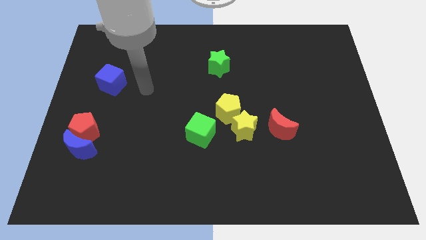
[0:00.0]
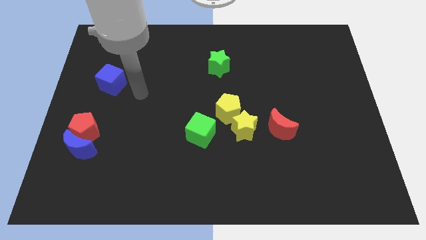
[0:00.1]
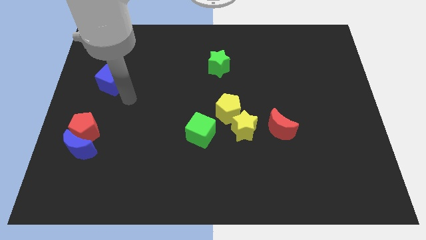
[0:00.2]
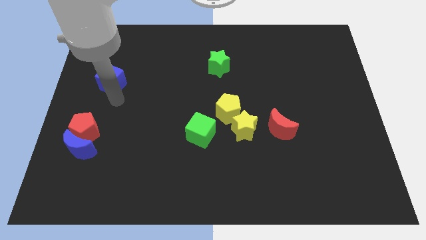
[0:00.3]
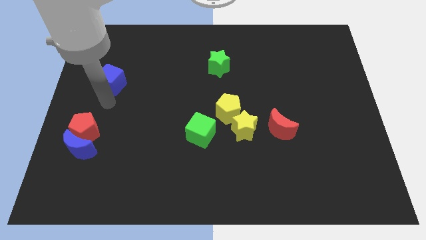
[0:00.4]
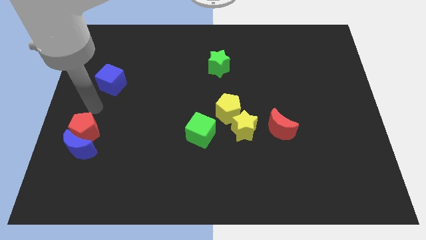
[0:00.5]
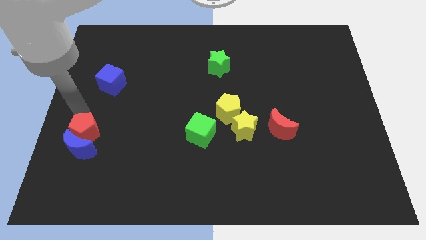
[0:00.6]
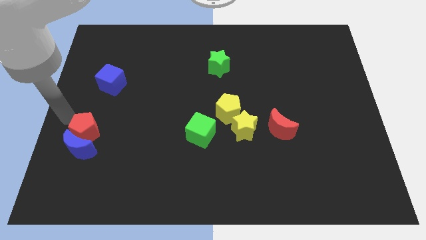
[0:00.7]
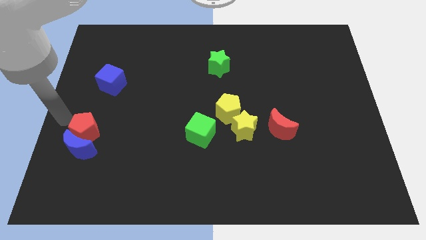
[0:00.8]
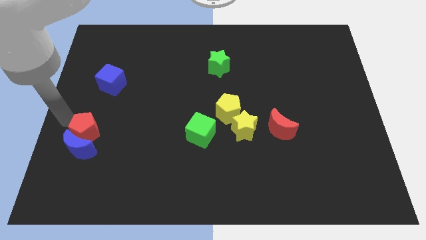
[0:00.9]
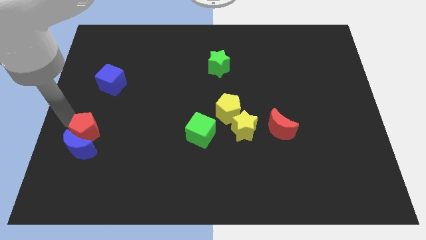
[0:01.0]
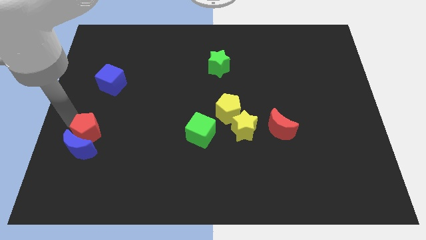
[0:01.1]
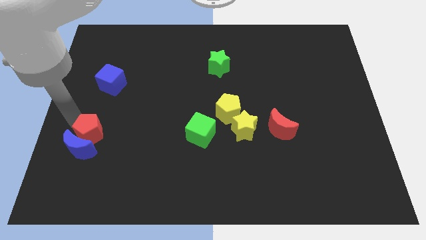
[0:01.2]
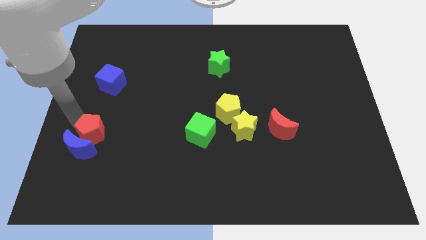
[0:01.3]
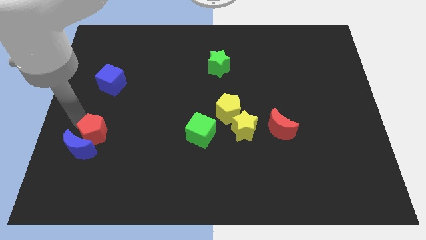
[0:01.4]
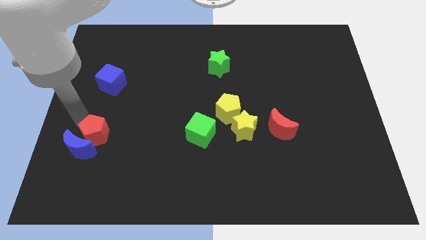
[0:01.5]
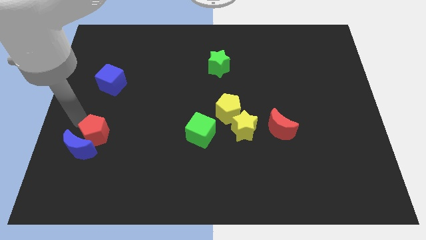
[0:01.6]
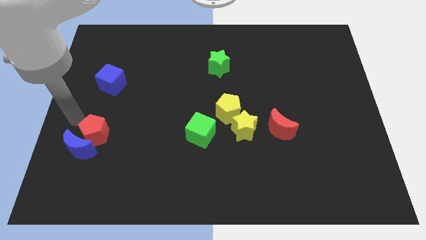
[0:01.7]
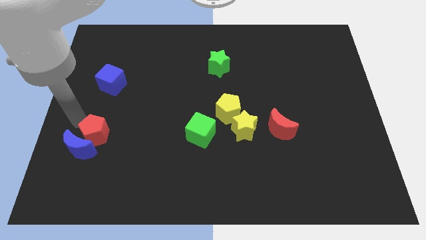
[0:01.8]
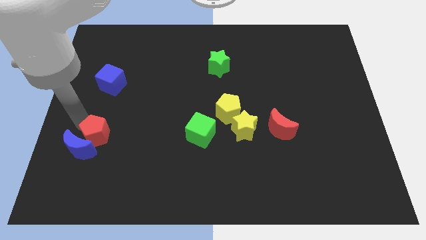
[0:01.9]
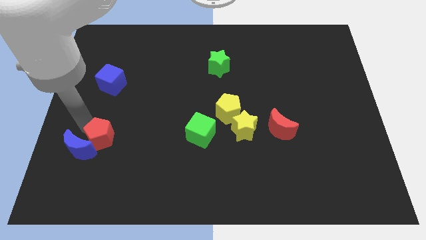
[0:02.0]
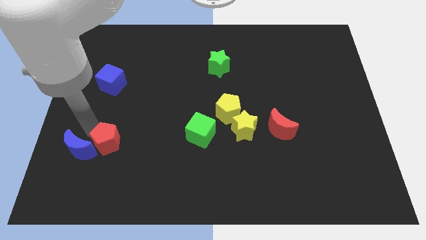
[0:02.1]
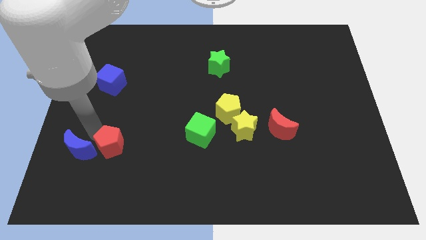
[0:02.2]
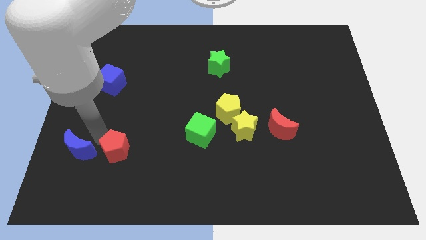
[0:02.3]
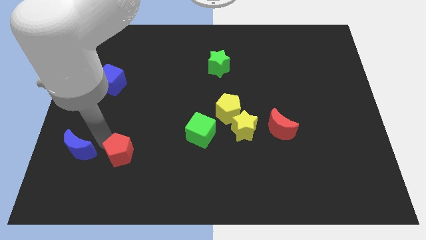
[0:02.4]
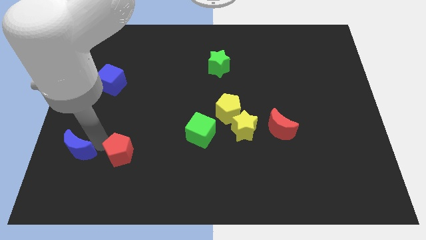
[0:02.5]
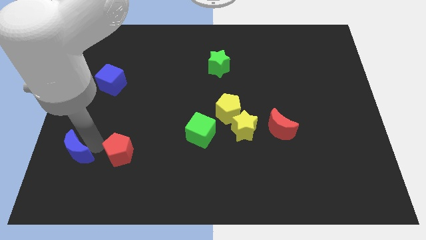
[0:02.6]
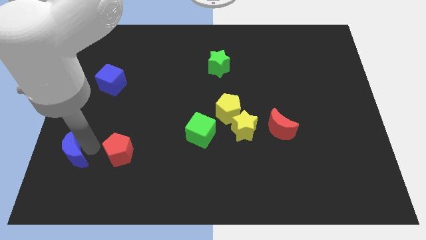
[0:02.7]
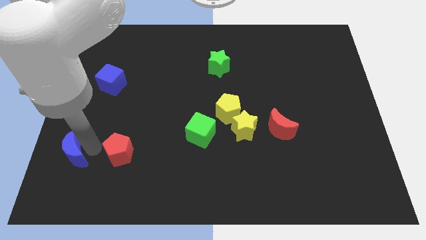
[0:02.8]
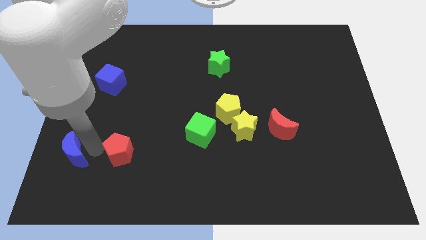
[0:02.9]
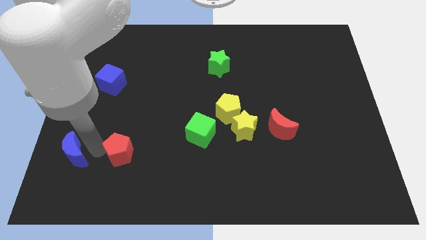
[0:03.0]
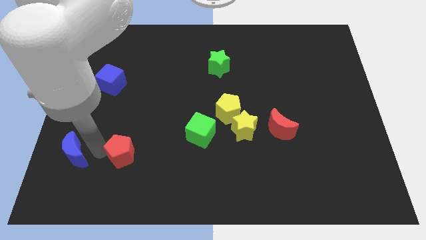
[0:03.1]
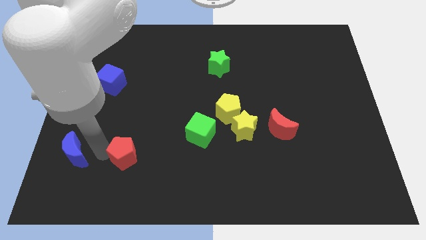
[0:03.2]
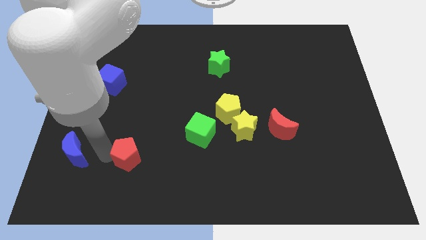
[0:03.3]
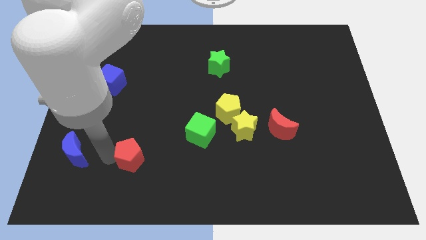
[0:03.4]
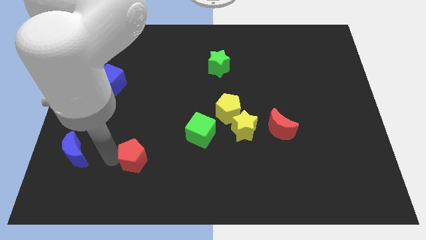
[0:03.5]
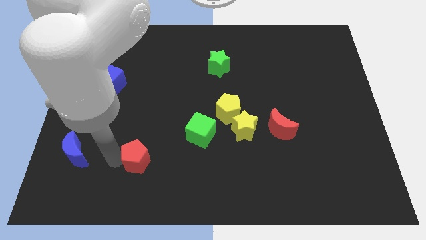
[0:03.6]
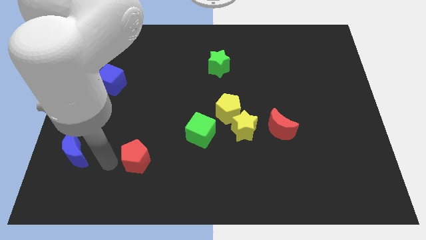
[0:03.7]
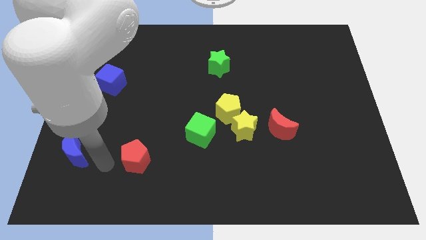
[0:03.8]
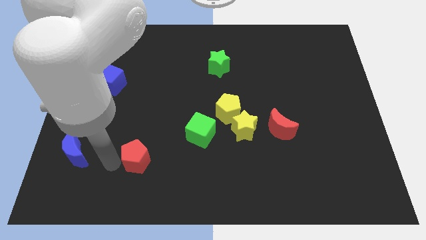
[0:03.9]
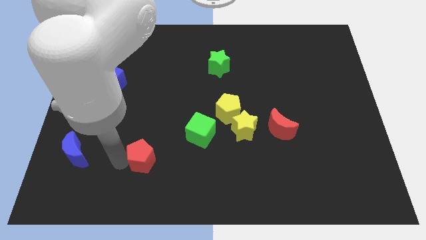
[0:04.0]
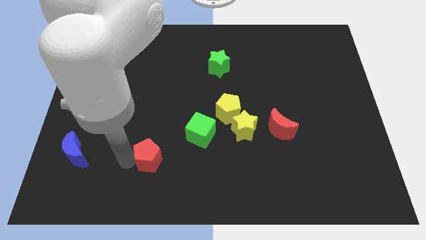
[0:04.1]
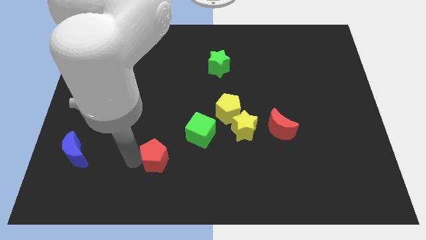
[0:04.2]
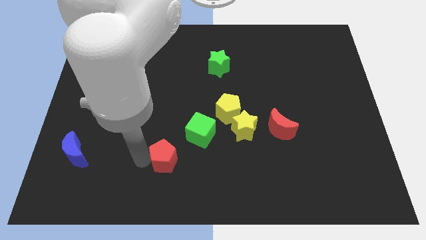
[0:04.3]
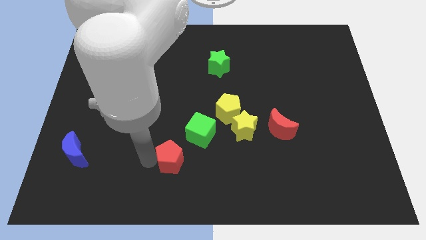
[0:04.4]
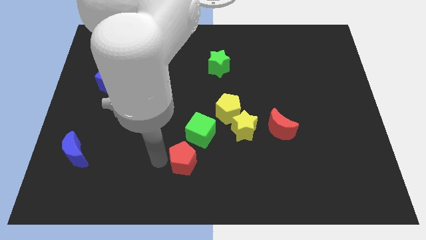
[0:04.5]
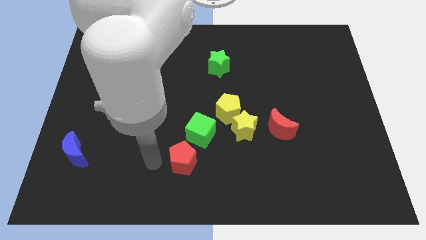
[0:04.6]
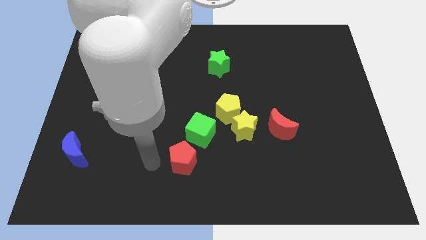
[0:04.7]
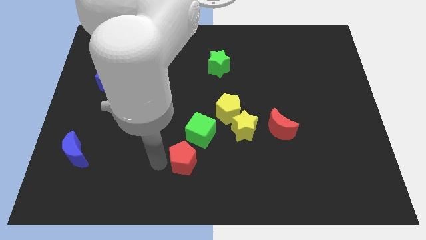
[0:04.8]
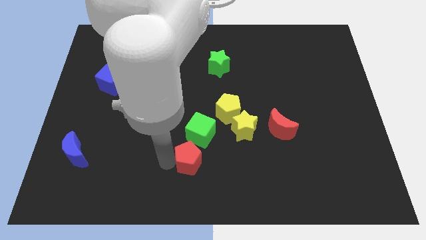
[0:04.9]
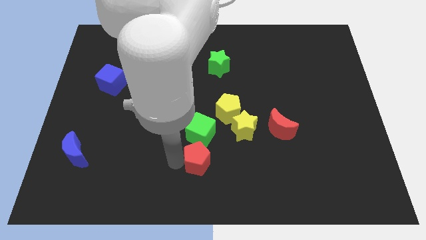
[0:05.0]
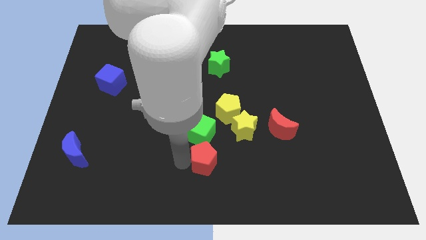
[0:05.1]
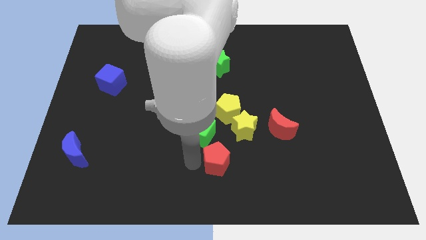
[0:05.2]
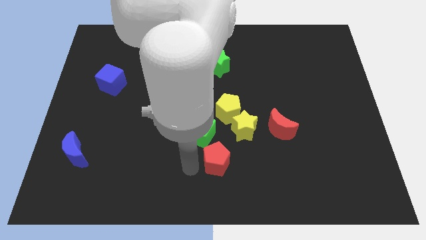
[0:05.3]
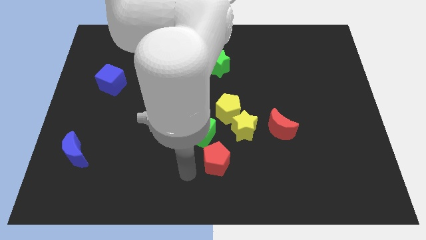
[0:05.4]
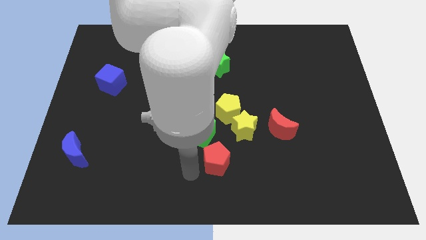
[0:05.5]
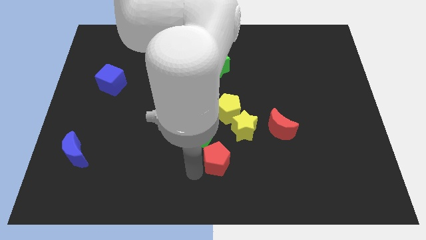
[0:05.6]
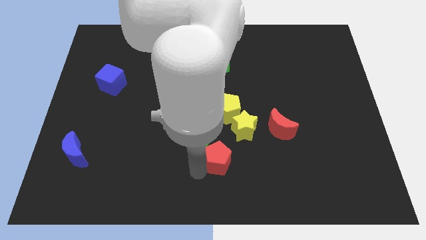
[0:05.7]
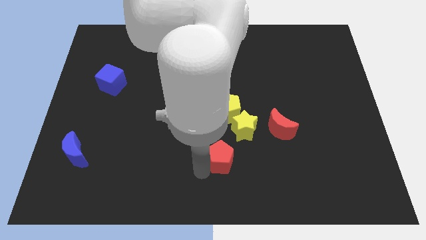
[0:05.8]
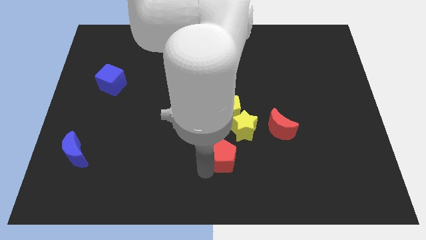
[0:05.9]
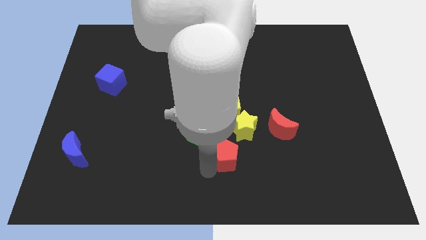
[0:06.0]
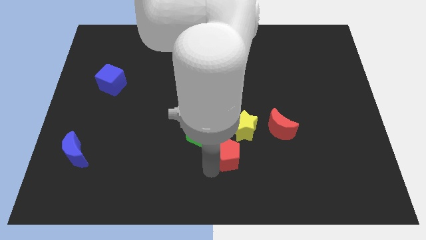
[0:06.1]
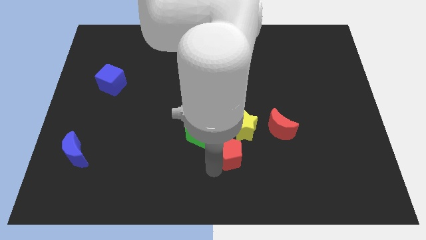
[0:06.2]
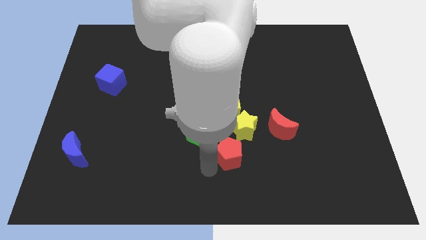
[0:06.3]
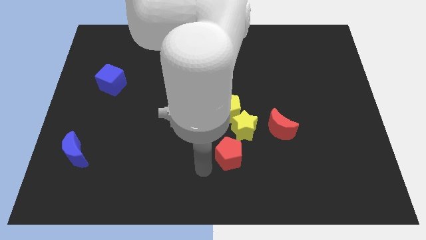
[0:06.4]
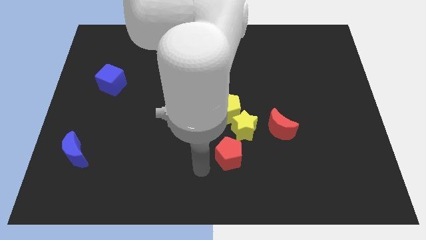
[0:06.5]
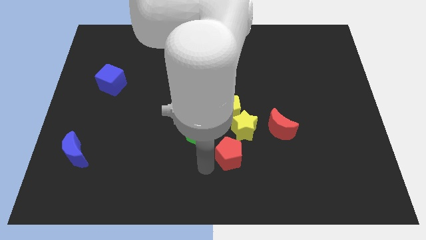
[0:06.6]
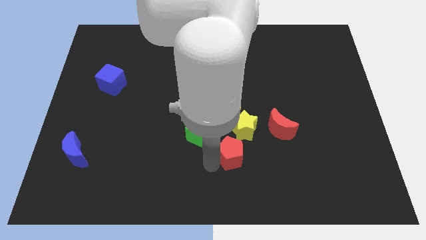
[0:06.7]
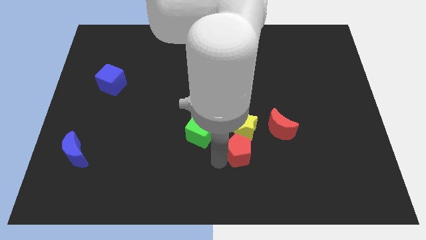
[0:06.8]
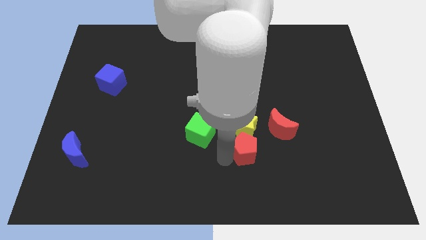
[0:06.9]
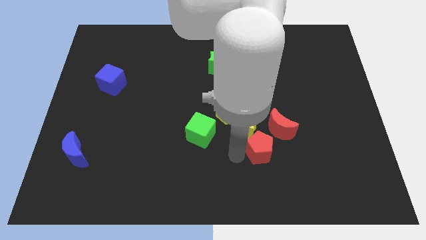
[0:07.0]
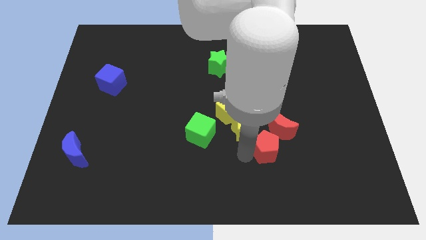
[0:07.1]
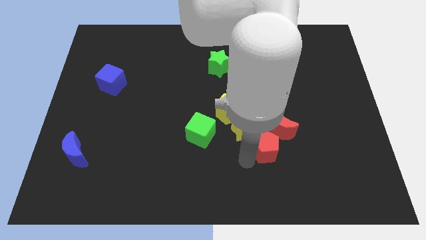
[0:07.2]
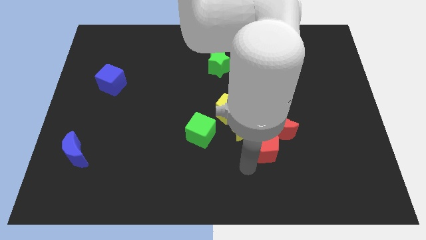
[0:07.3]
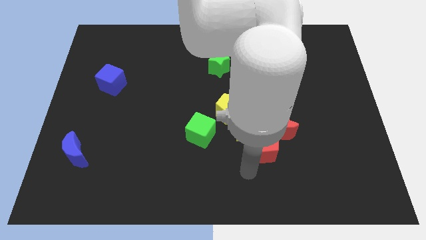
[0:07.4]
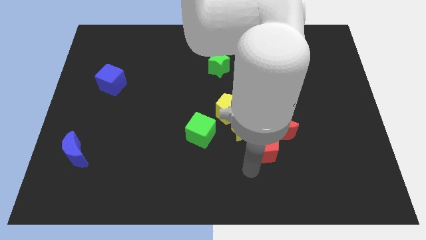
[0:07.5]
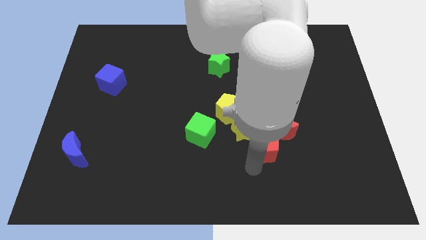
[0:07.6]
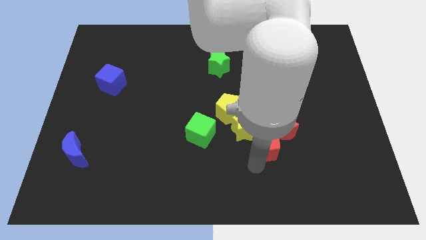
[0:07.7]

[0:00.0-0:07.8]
put the red pentagon next to the red moon
